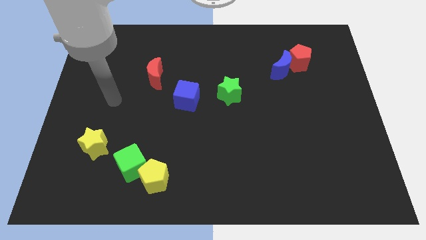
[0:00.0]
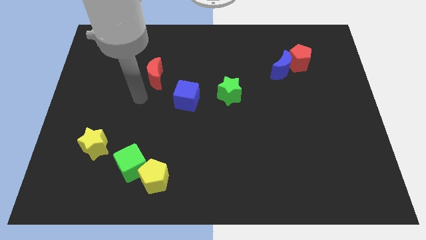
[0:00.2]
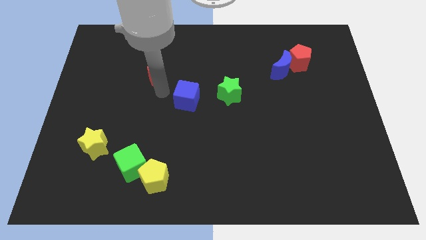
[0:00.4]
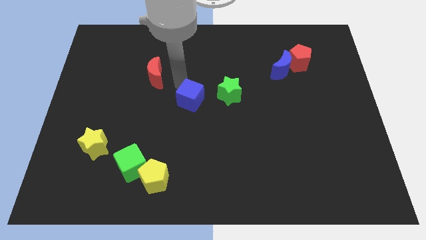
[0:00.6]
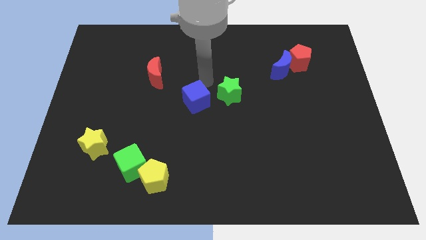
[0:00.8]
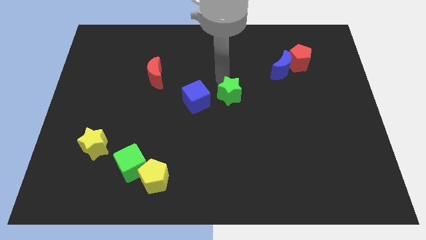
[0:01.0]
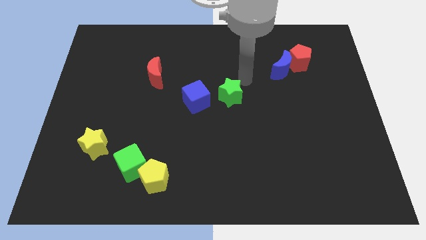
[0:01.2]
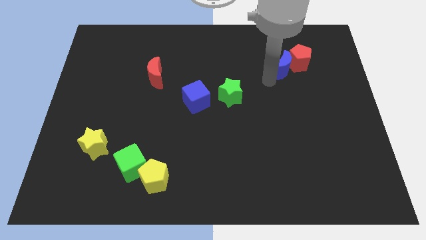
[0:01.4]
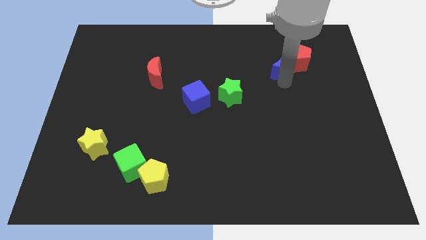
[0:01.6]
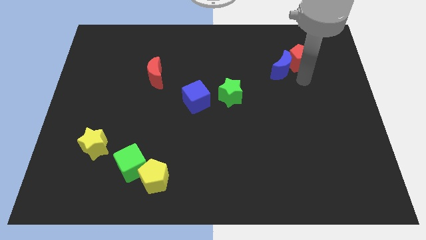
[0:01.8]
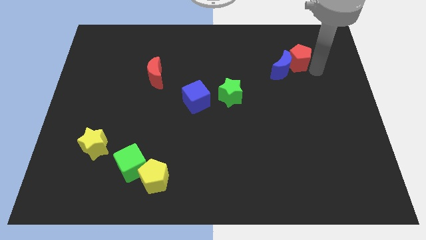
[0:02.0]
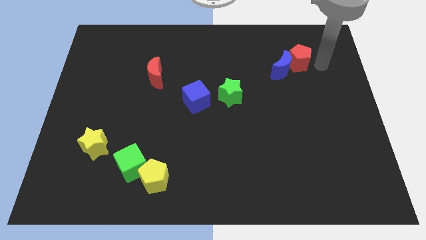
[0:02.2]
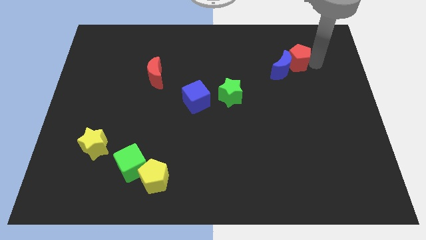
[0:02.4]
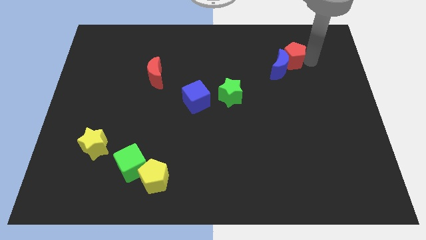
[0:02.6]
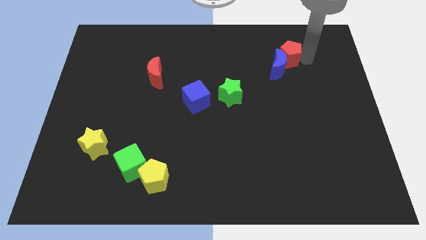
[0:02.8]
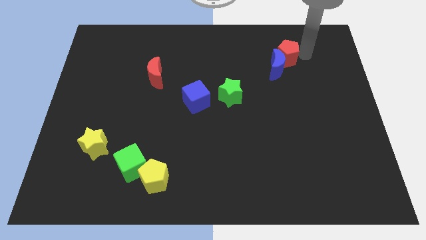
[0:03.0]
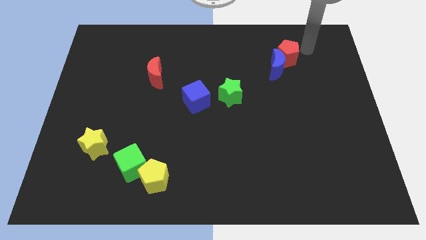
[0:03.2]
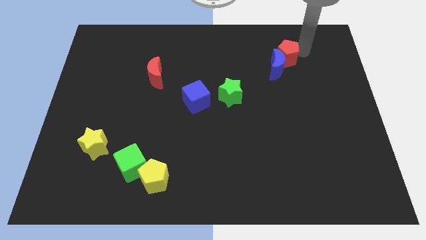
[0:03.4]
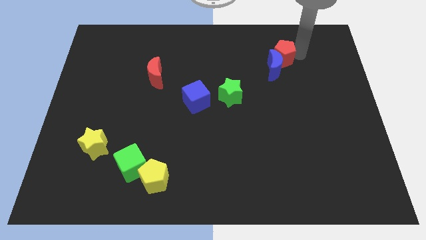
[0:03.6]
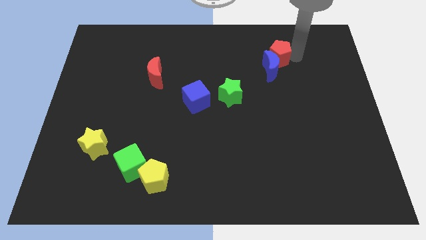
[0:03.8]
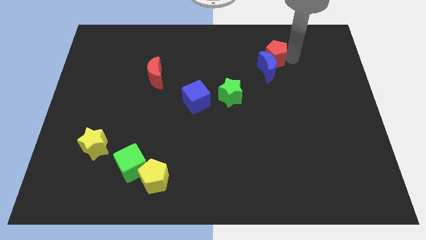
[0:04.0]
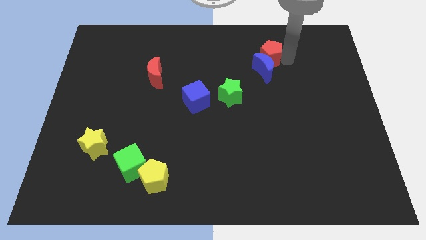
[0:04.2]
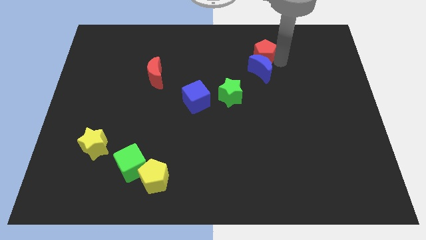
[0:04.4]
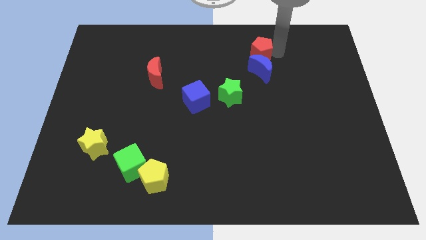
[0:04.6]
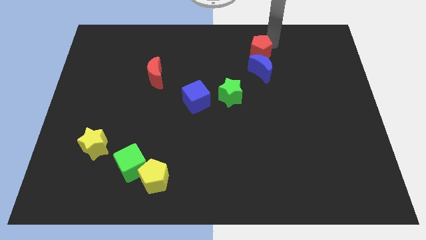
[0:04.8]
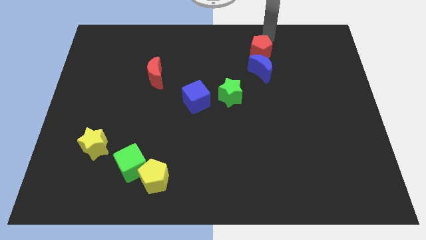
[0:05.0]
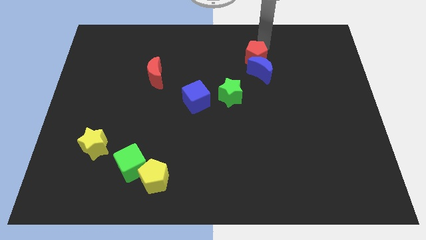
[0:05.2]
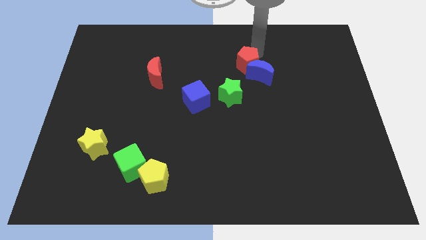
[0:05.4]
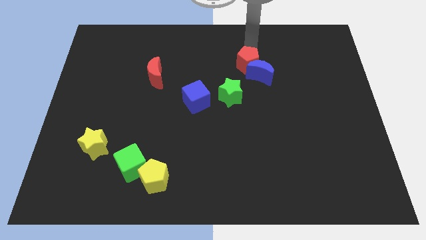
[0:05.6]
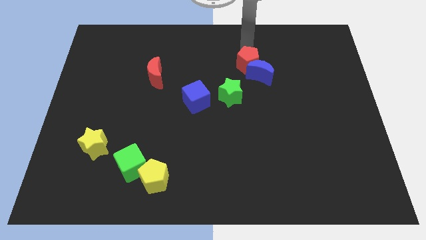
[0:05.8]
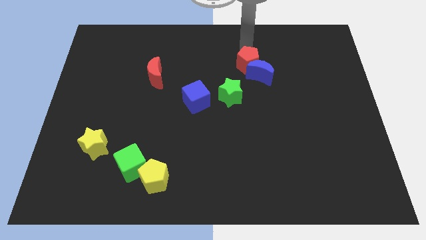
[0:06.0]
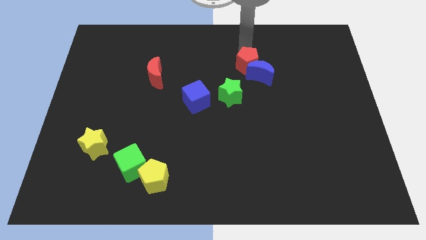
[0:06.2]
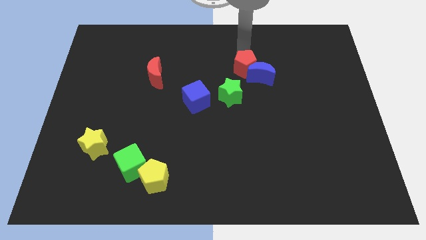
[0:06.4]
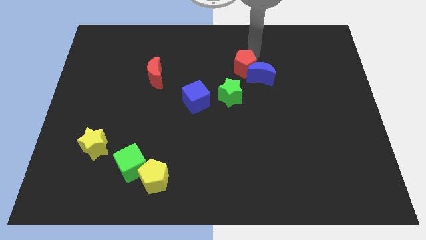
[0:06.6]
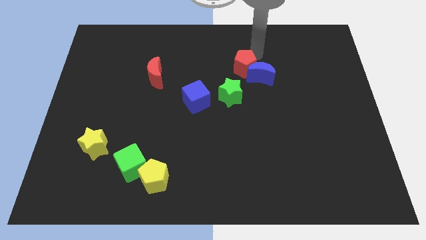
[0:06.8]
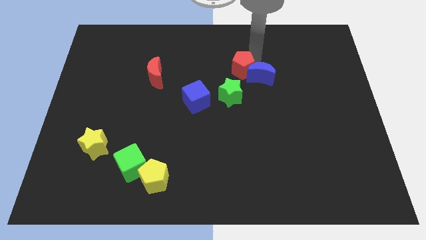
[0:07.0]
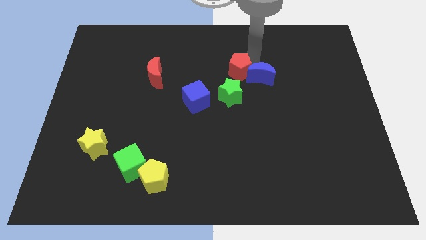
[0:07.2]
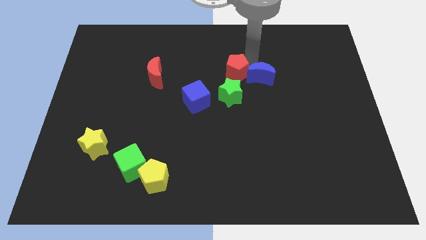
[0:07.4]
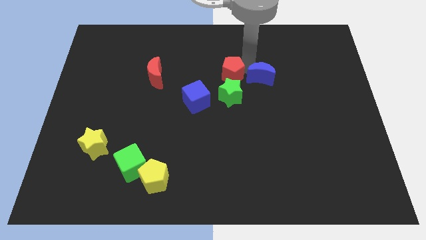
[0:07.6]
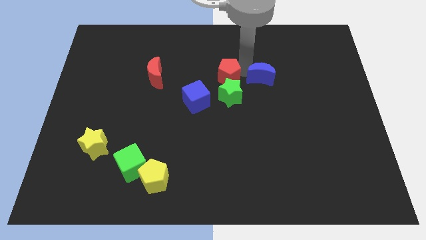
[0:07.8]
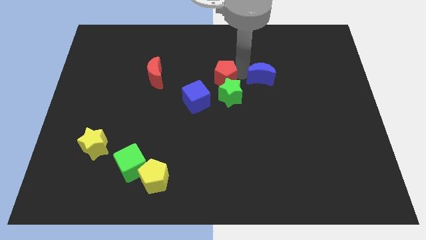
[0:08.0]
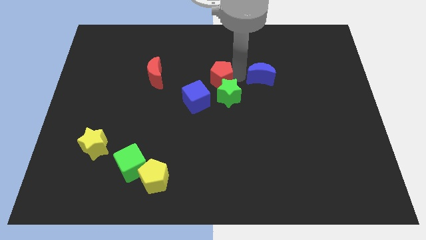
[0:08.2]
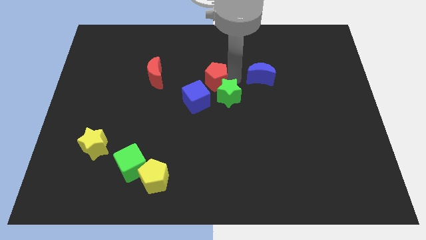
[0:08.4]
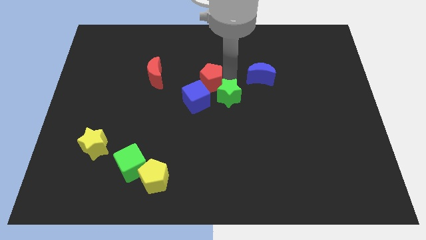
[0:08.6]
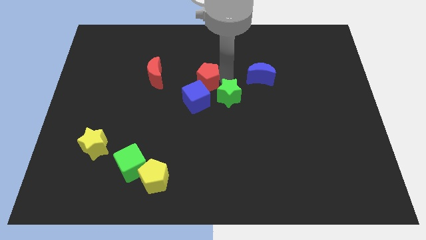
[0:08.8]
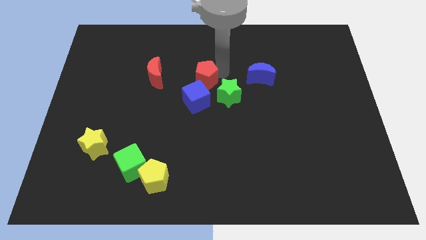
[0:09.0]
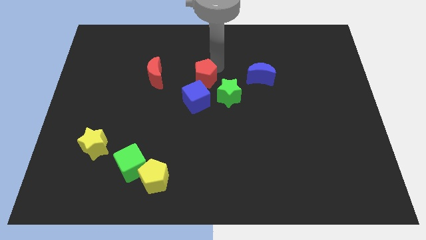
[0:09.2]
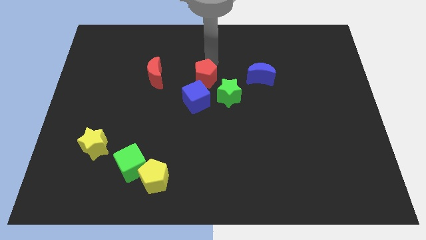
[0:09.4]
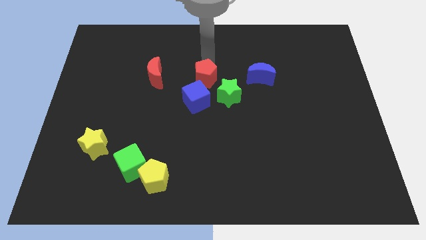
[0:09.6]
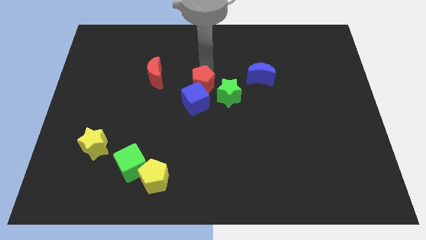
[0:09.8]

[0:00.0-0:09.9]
slide the red pentagon close to the blue cube

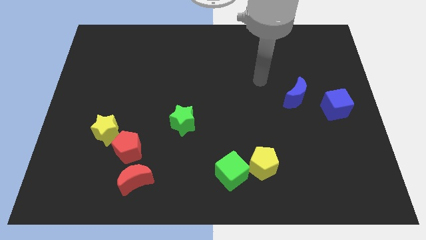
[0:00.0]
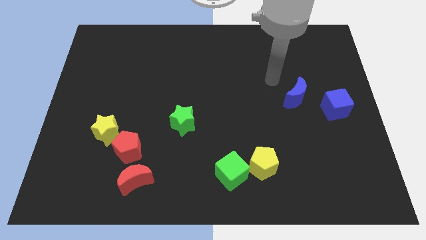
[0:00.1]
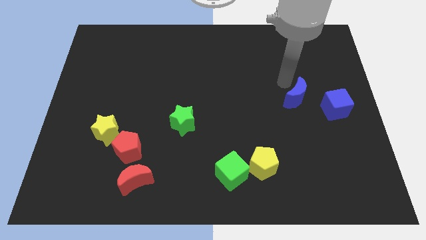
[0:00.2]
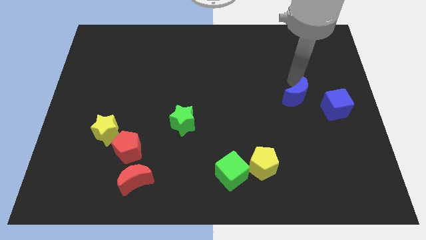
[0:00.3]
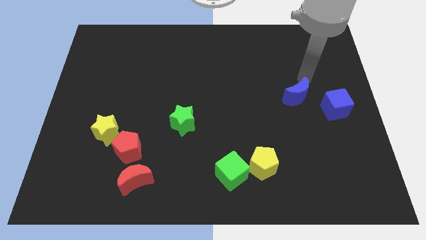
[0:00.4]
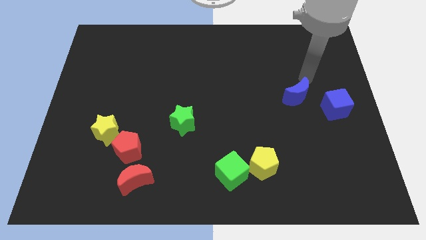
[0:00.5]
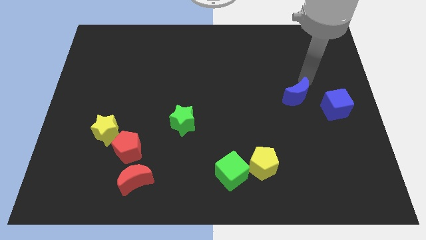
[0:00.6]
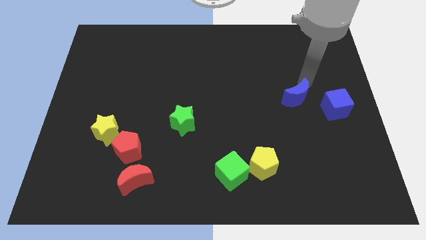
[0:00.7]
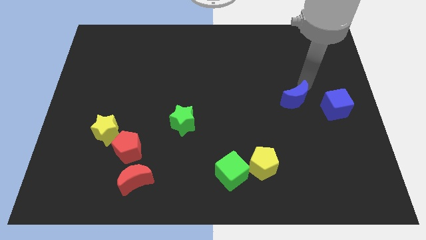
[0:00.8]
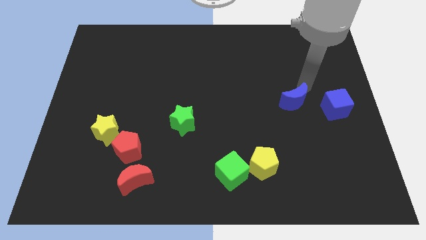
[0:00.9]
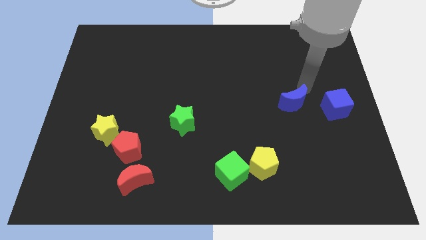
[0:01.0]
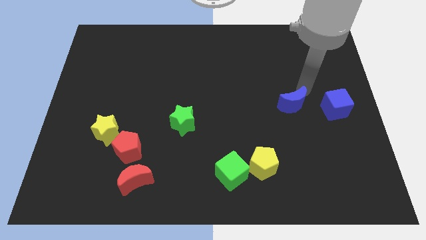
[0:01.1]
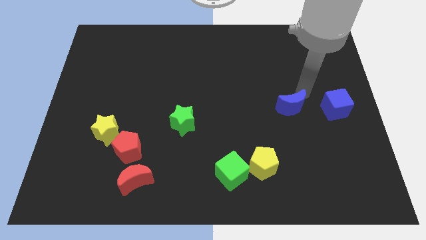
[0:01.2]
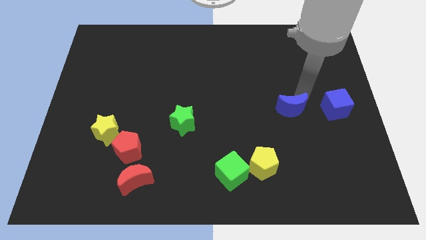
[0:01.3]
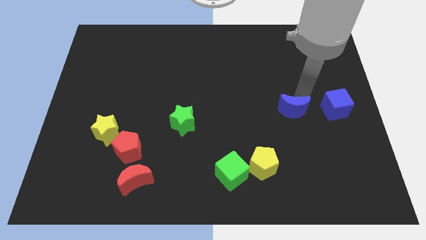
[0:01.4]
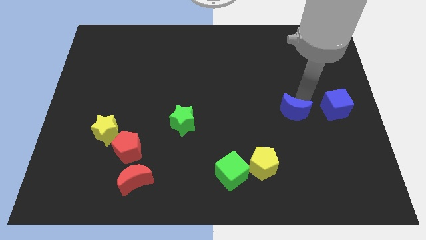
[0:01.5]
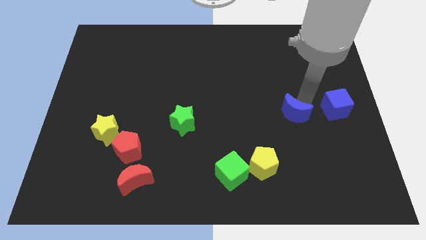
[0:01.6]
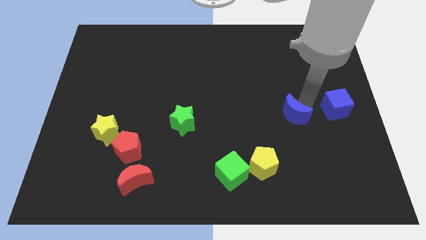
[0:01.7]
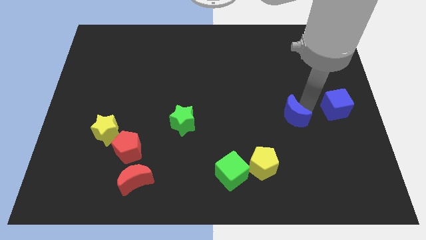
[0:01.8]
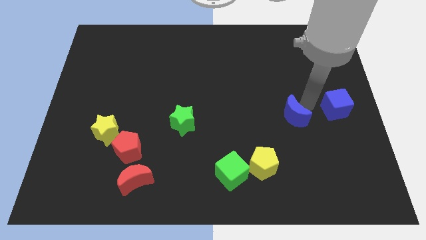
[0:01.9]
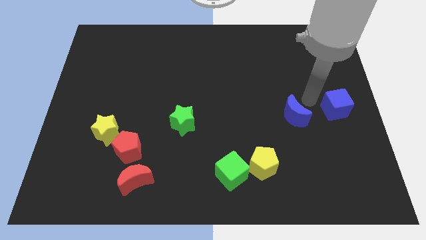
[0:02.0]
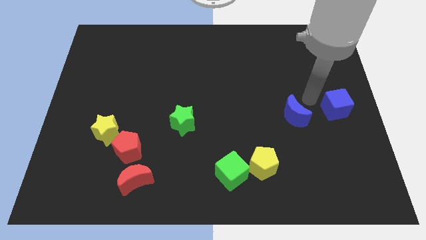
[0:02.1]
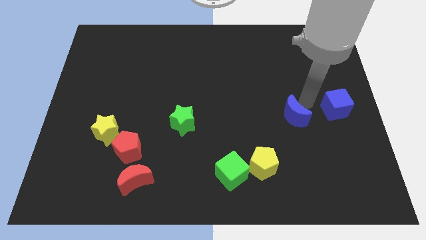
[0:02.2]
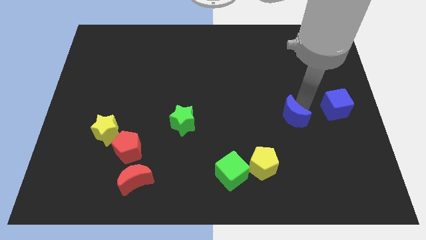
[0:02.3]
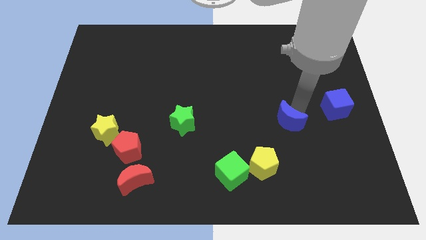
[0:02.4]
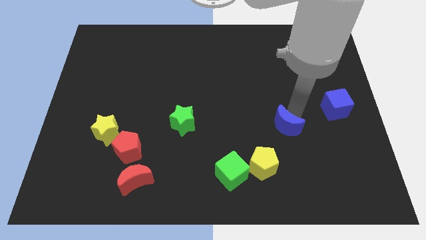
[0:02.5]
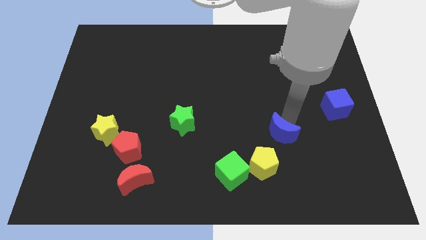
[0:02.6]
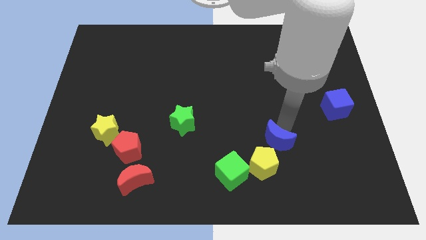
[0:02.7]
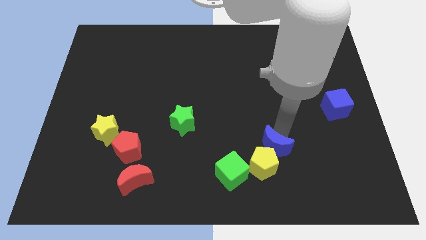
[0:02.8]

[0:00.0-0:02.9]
put the blue moon to the yellow pentagon

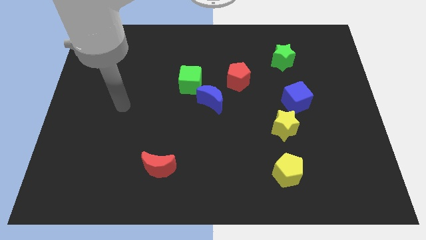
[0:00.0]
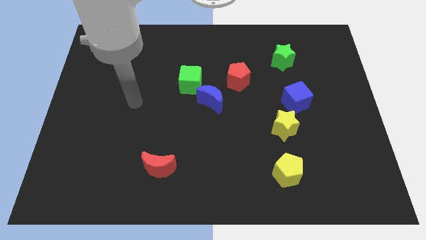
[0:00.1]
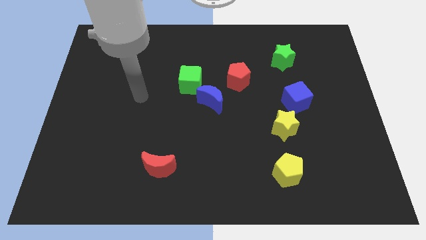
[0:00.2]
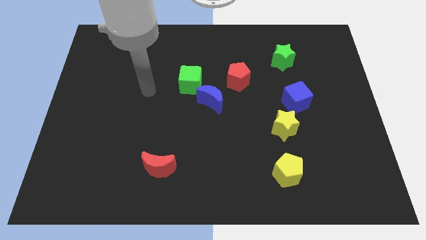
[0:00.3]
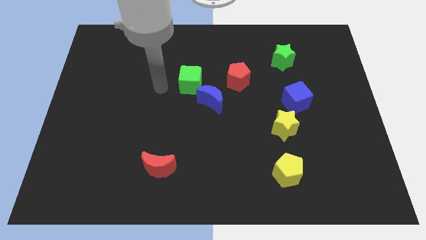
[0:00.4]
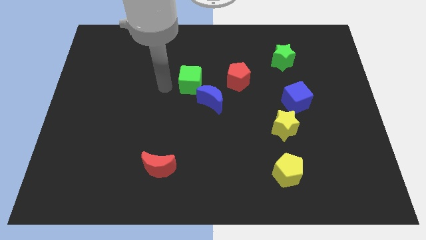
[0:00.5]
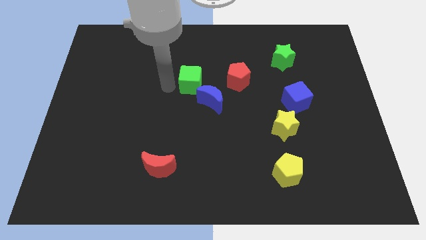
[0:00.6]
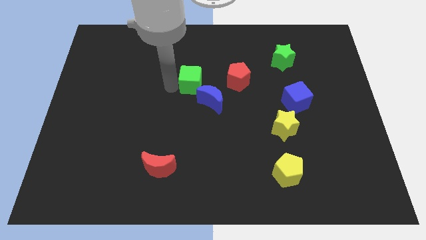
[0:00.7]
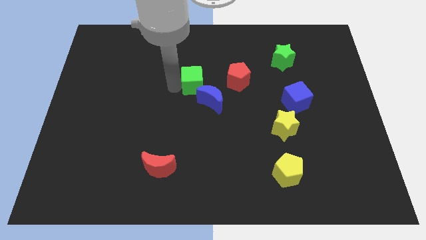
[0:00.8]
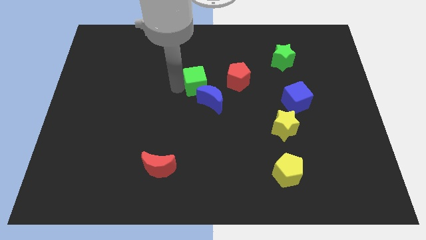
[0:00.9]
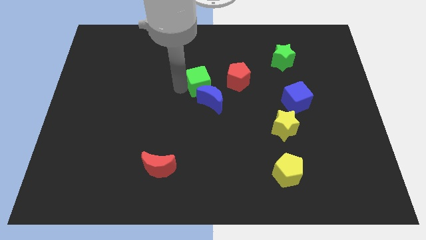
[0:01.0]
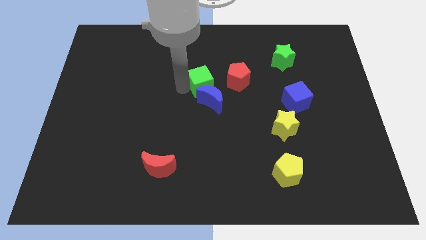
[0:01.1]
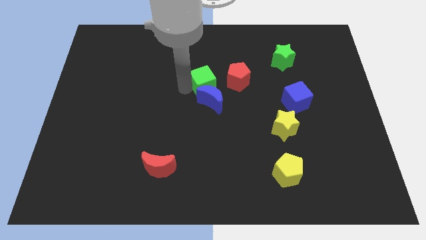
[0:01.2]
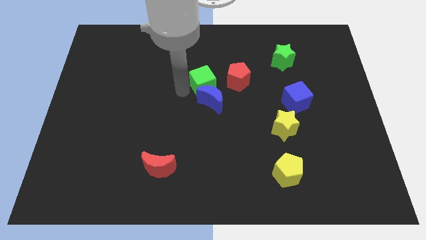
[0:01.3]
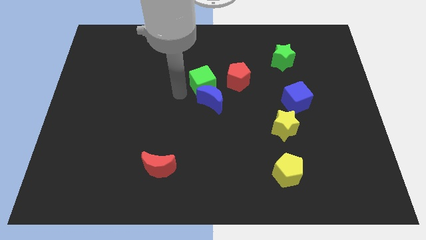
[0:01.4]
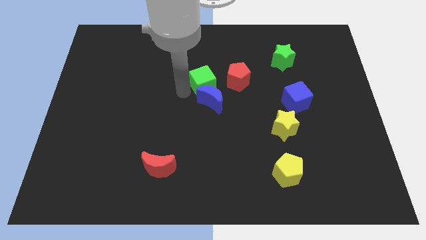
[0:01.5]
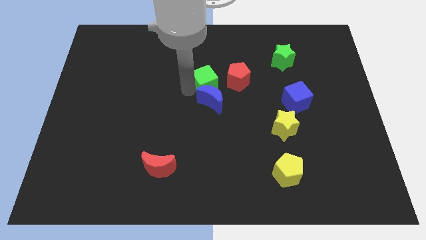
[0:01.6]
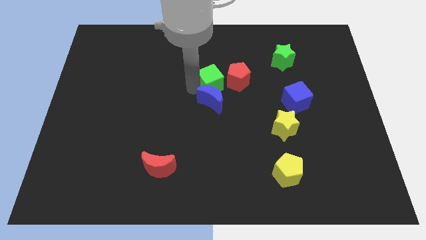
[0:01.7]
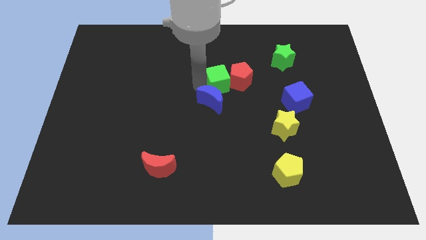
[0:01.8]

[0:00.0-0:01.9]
push the green cube close to the red pentagon
